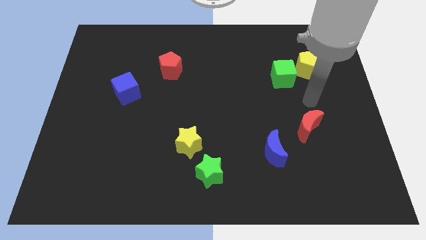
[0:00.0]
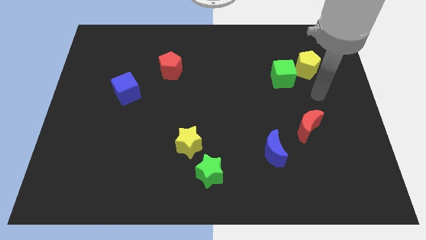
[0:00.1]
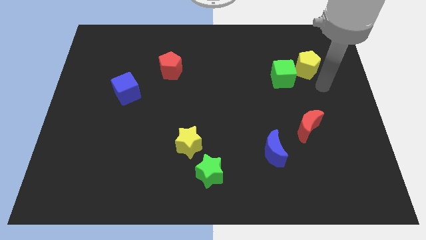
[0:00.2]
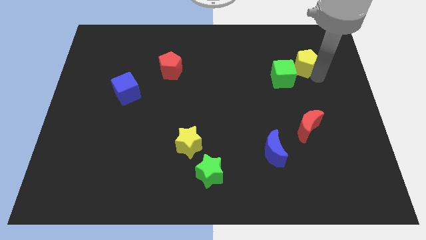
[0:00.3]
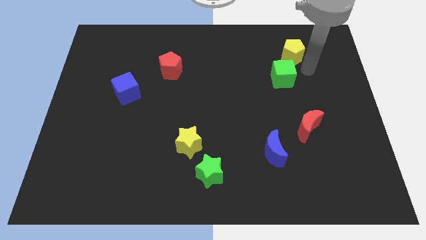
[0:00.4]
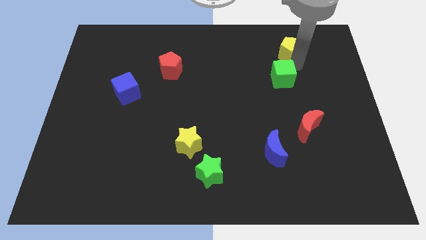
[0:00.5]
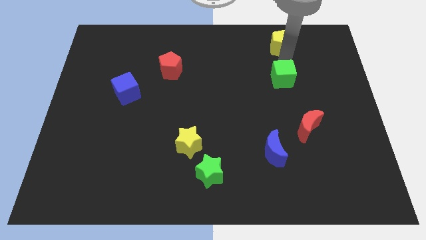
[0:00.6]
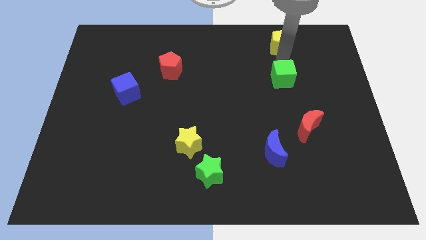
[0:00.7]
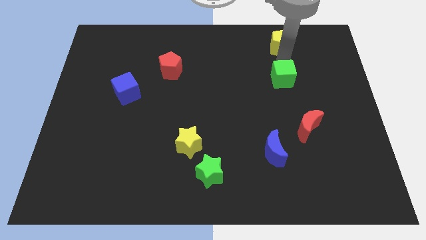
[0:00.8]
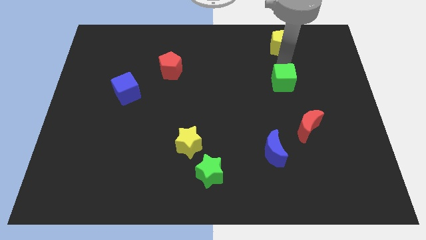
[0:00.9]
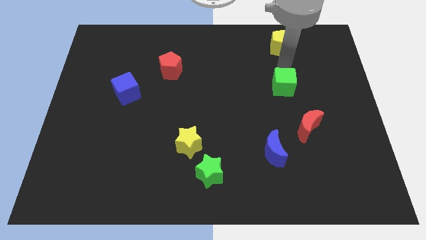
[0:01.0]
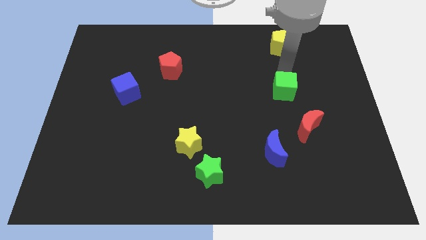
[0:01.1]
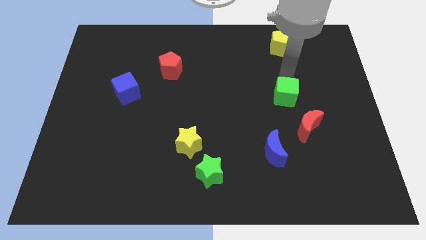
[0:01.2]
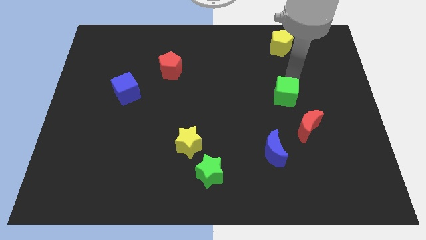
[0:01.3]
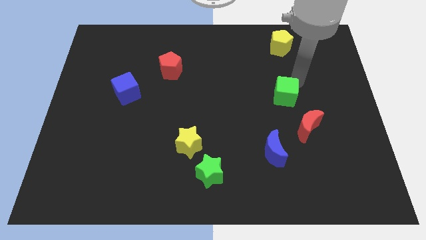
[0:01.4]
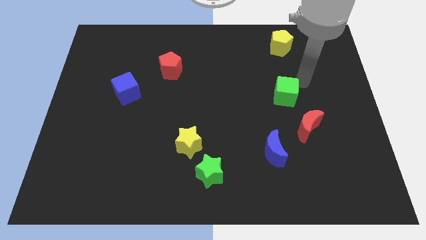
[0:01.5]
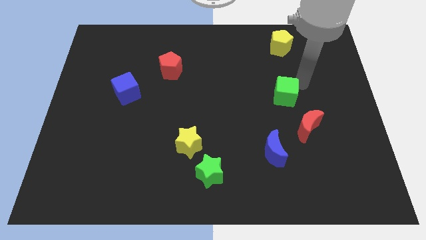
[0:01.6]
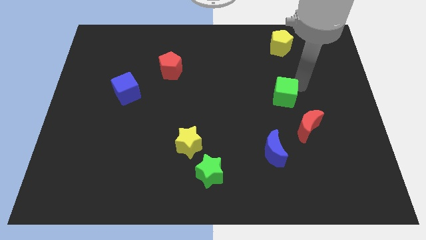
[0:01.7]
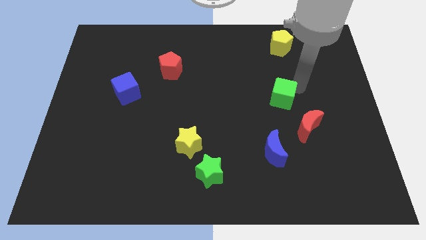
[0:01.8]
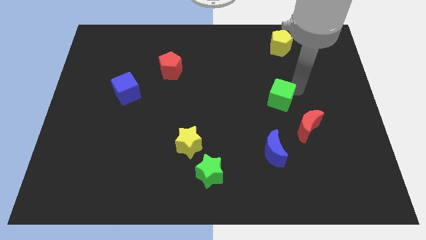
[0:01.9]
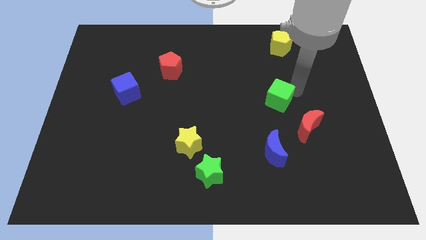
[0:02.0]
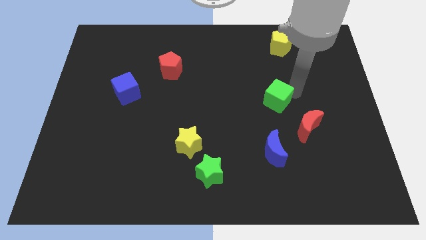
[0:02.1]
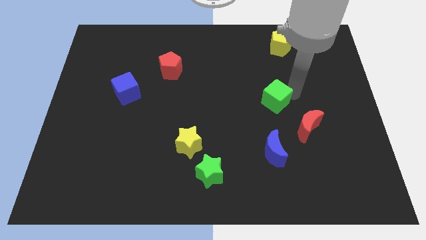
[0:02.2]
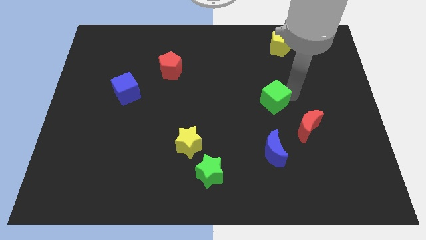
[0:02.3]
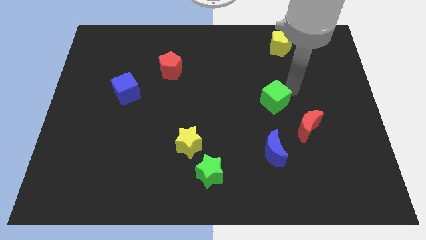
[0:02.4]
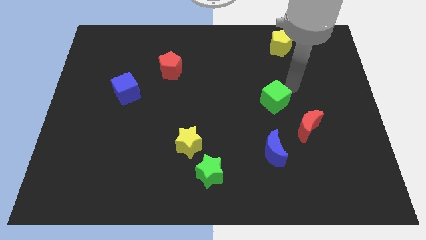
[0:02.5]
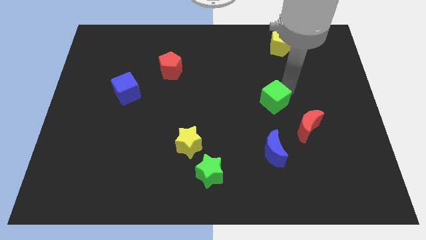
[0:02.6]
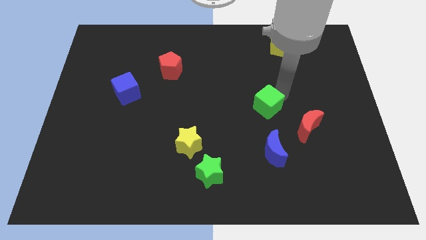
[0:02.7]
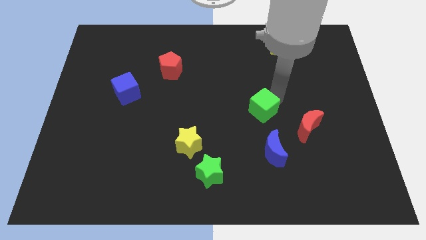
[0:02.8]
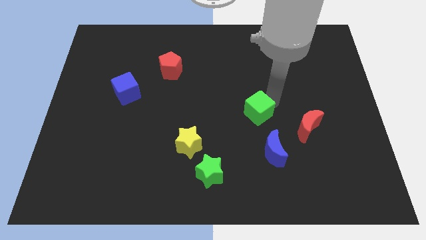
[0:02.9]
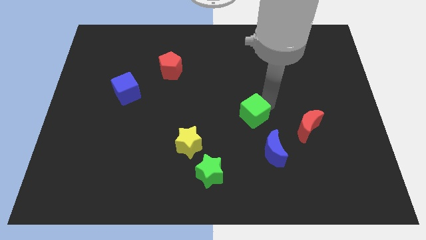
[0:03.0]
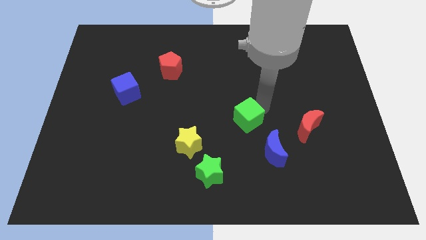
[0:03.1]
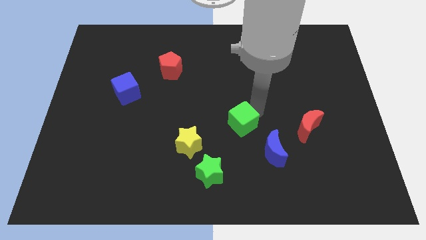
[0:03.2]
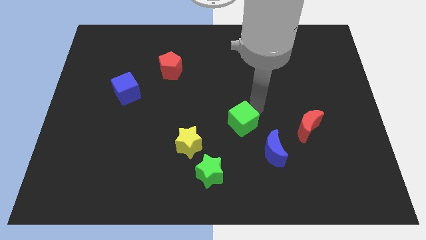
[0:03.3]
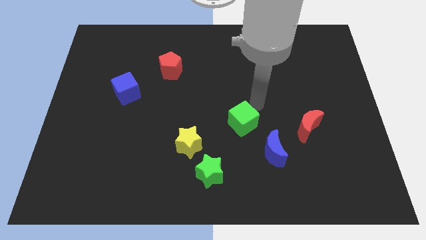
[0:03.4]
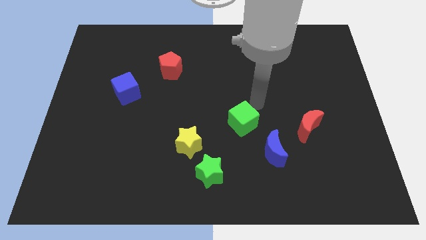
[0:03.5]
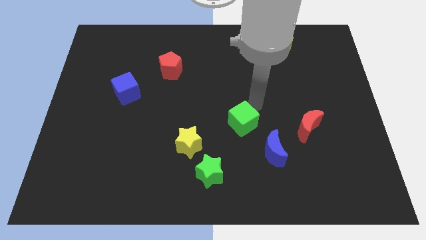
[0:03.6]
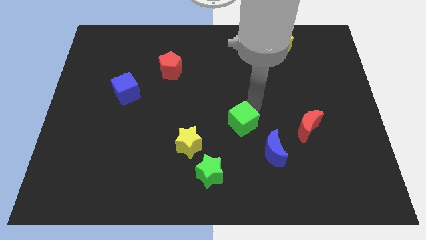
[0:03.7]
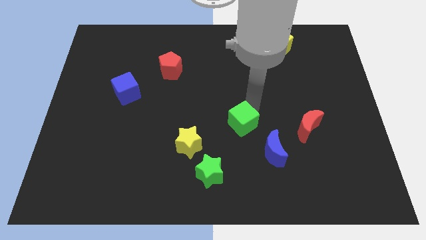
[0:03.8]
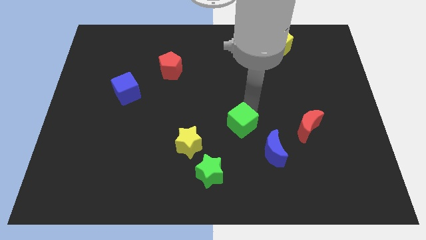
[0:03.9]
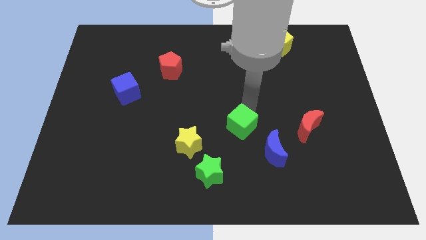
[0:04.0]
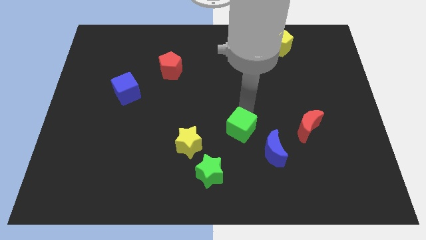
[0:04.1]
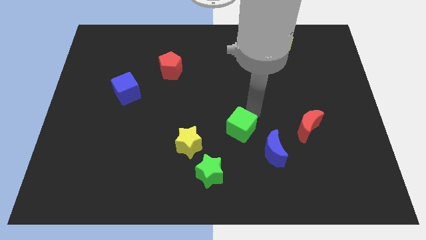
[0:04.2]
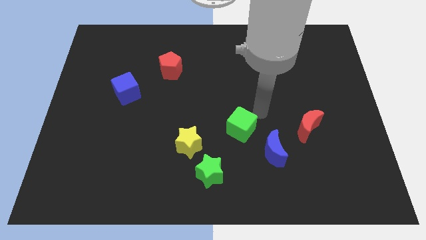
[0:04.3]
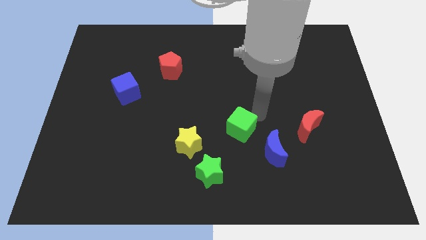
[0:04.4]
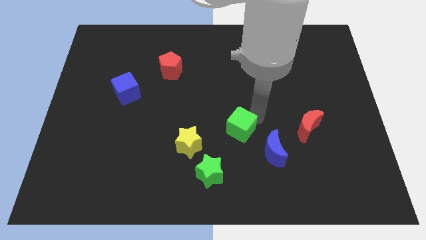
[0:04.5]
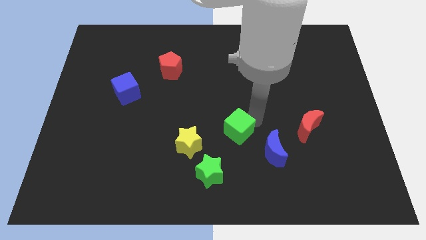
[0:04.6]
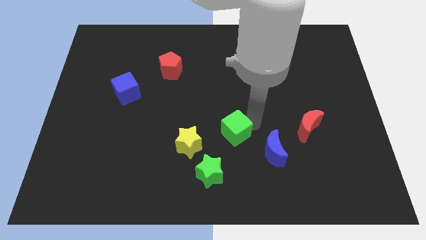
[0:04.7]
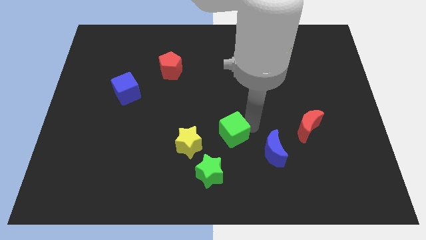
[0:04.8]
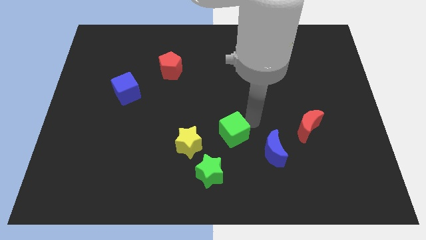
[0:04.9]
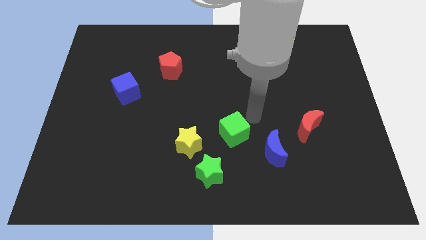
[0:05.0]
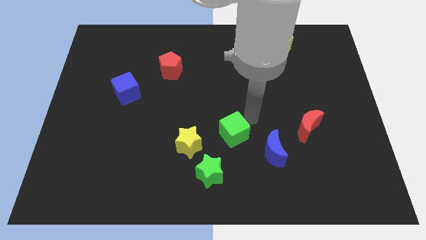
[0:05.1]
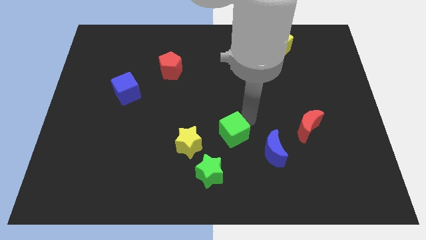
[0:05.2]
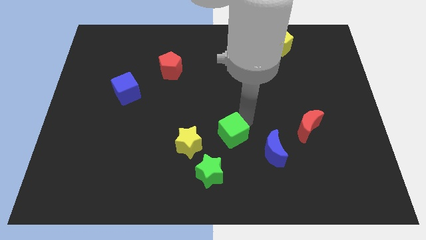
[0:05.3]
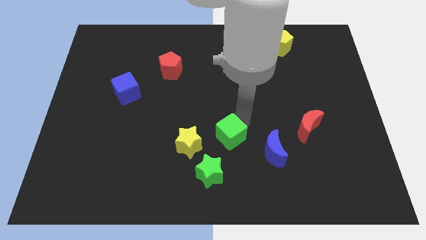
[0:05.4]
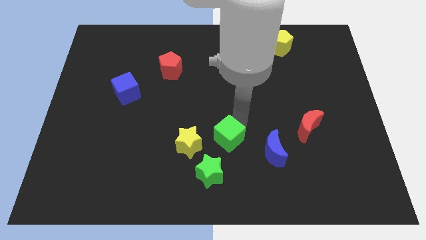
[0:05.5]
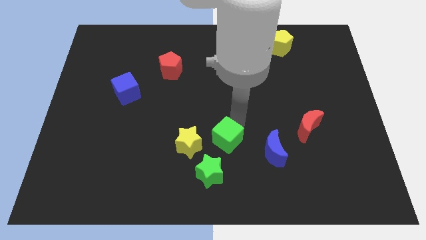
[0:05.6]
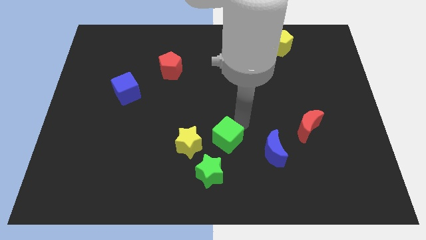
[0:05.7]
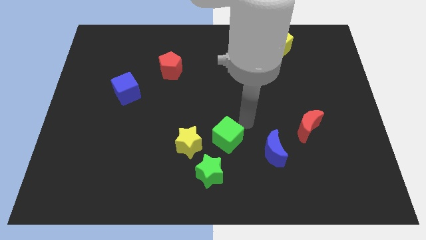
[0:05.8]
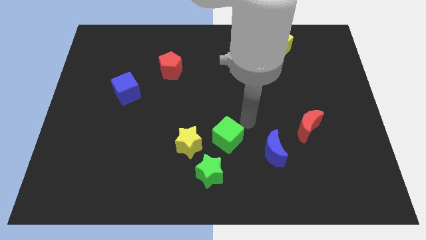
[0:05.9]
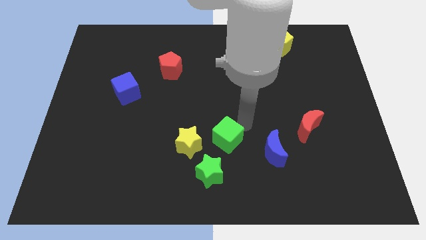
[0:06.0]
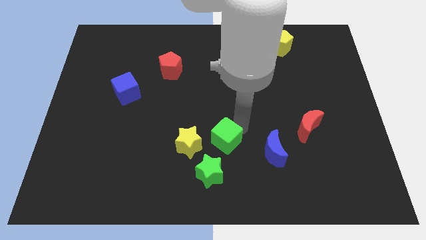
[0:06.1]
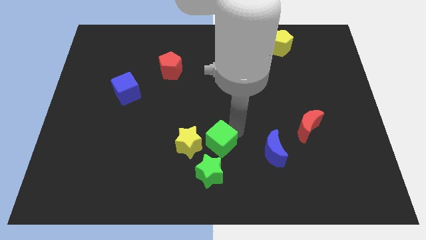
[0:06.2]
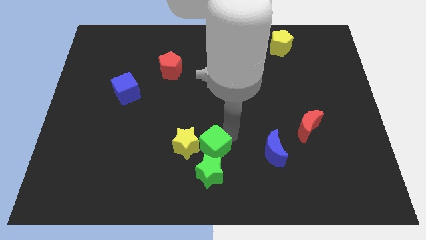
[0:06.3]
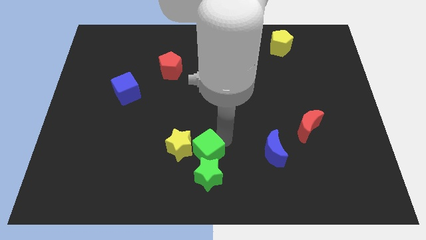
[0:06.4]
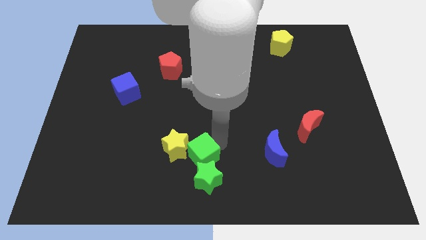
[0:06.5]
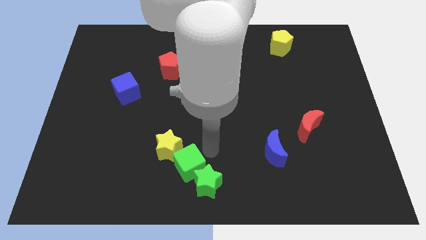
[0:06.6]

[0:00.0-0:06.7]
push the green cube just left of the green star

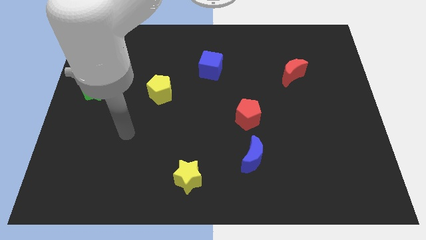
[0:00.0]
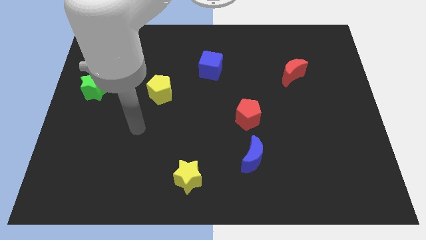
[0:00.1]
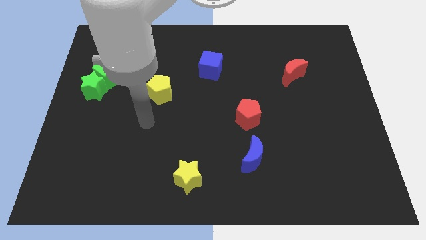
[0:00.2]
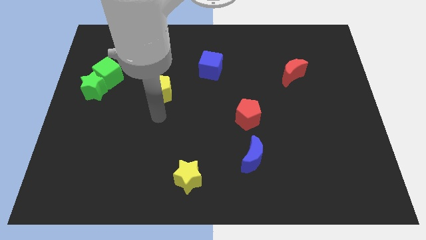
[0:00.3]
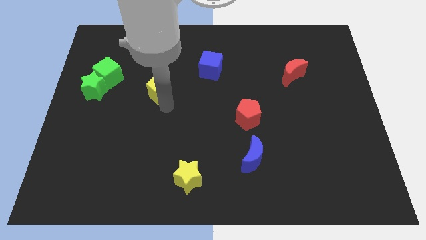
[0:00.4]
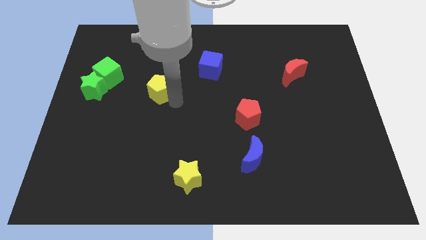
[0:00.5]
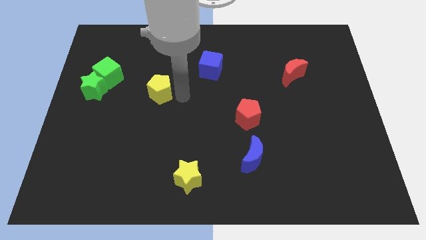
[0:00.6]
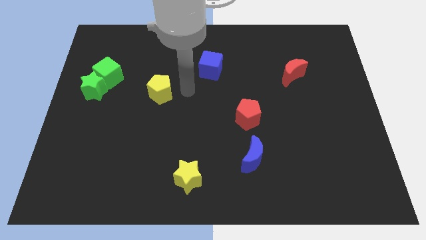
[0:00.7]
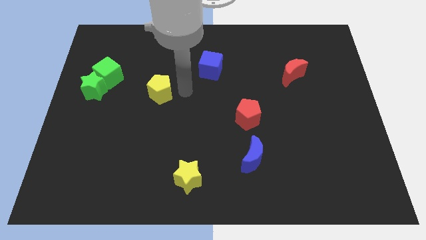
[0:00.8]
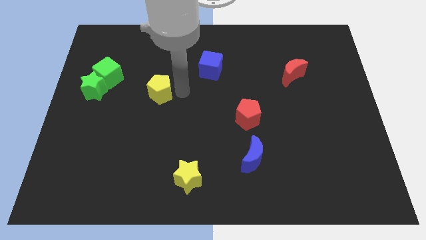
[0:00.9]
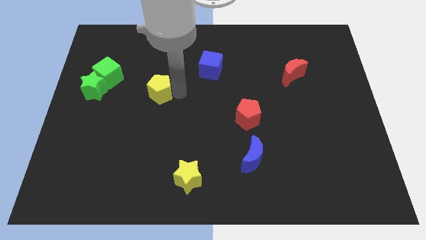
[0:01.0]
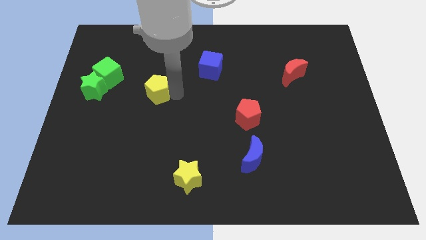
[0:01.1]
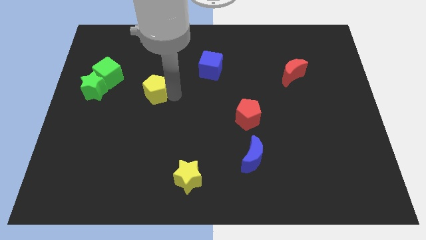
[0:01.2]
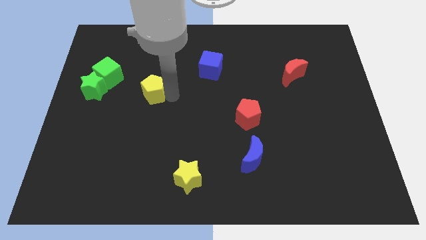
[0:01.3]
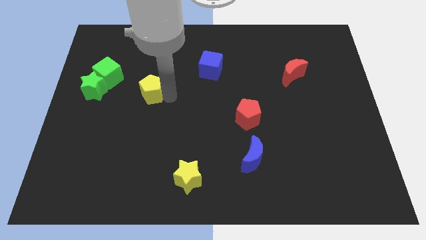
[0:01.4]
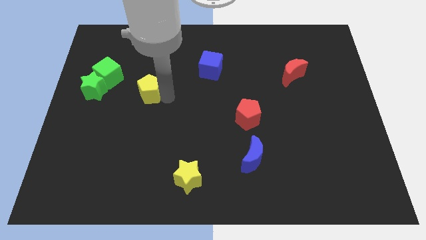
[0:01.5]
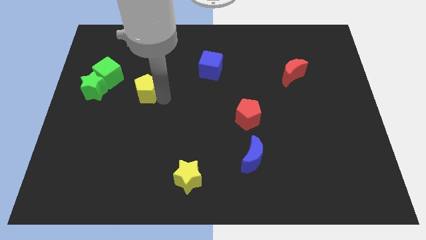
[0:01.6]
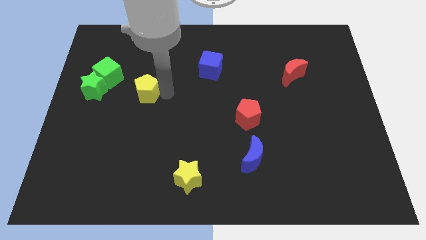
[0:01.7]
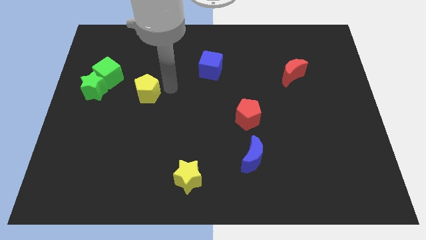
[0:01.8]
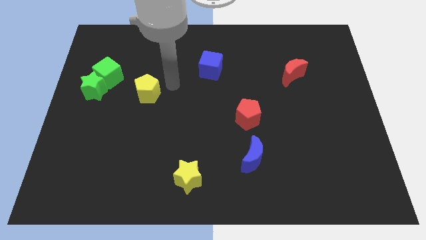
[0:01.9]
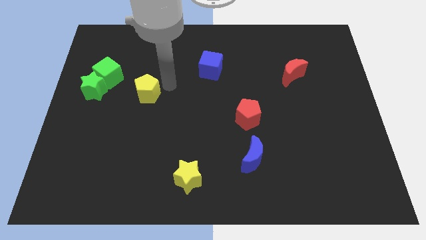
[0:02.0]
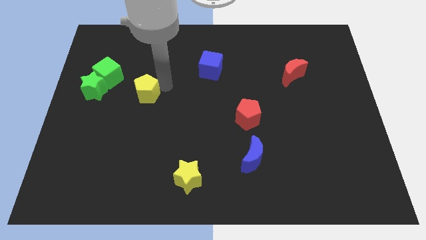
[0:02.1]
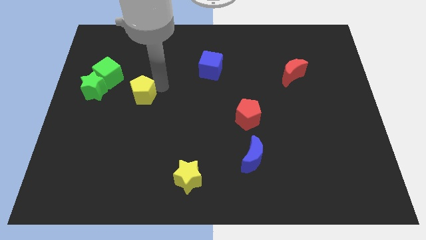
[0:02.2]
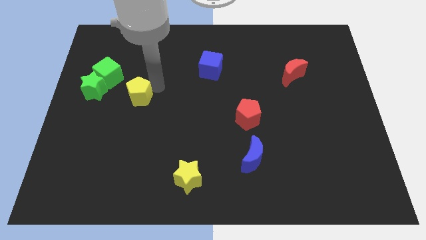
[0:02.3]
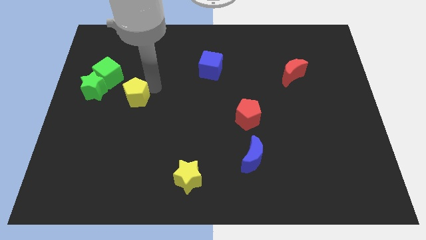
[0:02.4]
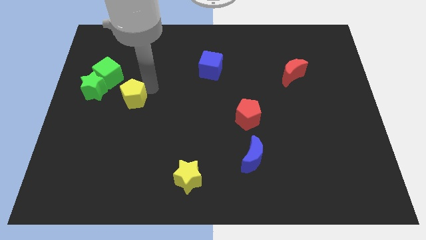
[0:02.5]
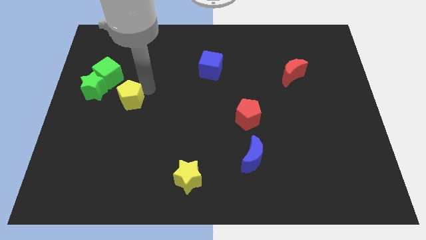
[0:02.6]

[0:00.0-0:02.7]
put the yellow pentagon to the bottom right side of the green star
